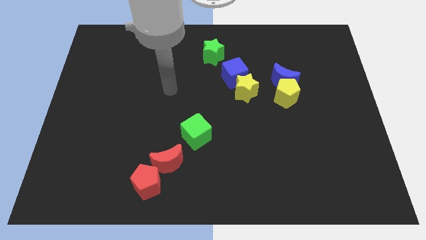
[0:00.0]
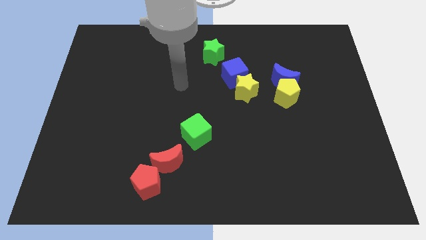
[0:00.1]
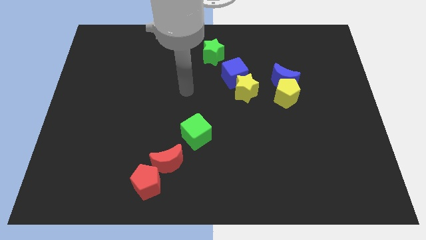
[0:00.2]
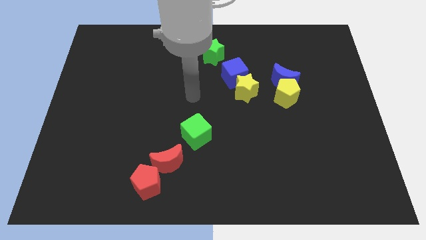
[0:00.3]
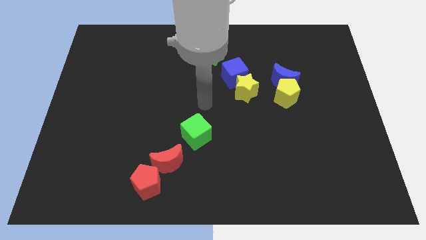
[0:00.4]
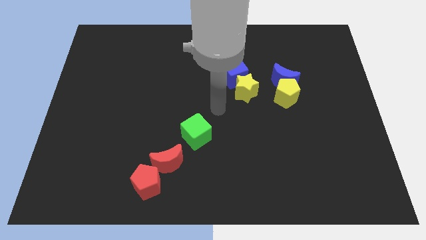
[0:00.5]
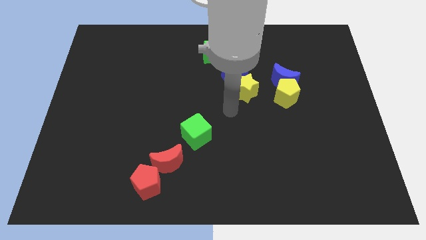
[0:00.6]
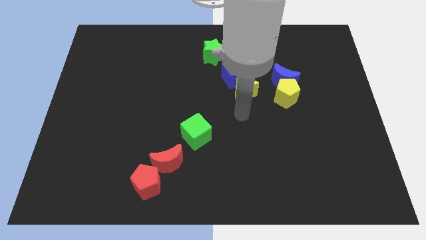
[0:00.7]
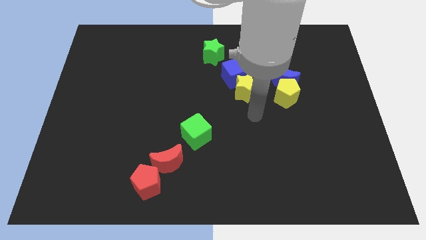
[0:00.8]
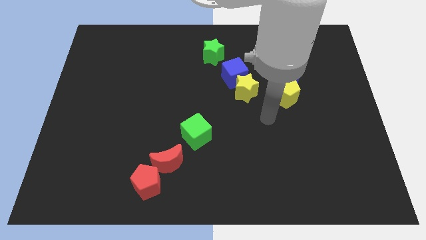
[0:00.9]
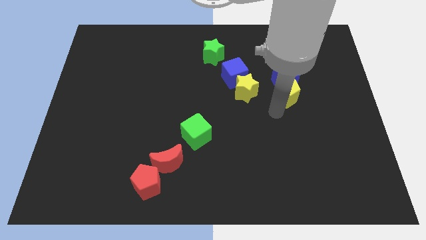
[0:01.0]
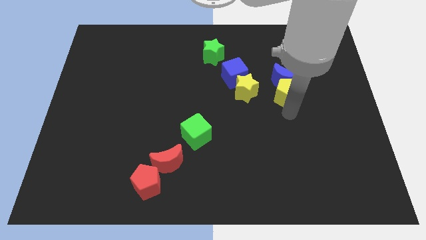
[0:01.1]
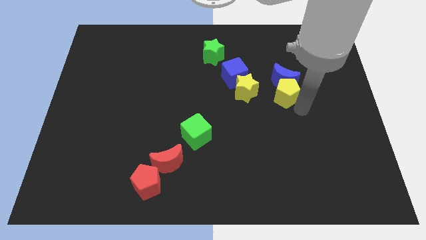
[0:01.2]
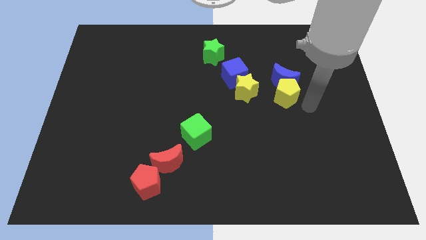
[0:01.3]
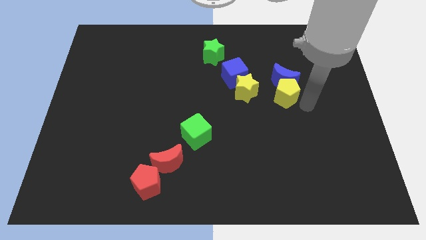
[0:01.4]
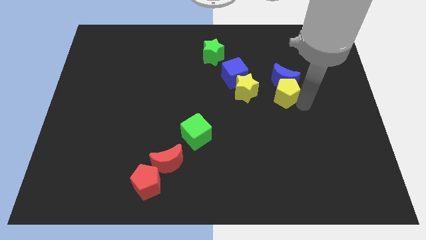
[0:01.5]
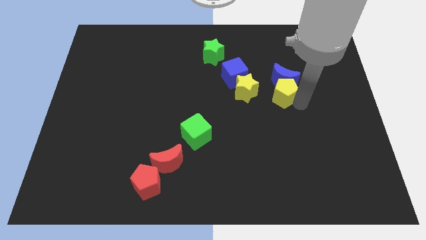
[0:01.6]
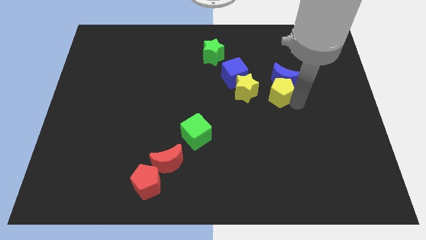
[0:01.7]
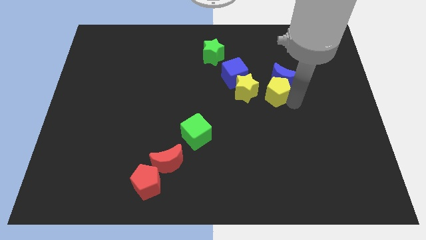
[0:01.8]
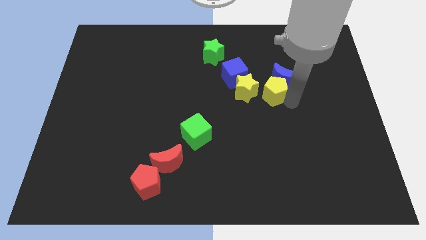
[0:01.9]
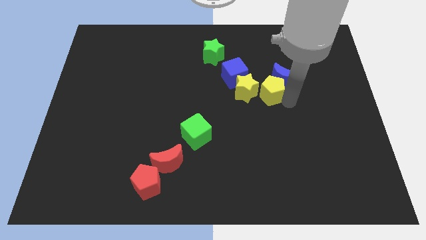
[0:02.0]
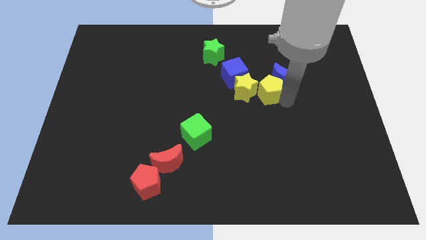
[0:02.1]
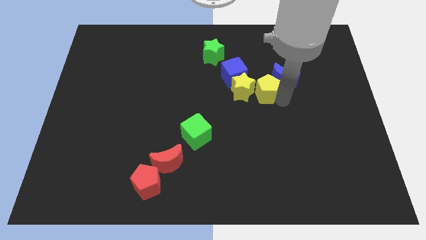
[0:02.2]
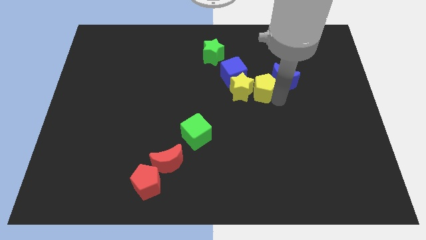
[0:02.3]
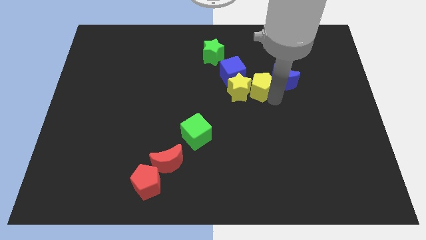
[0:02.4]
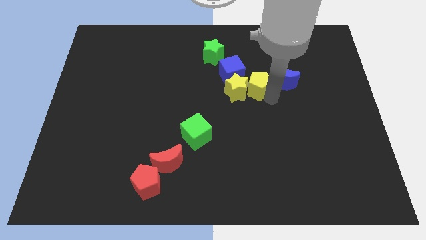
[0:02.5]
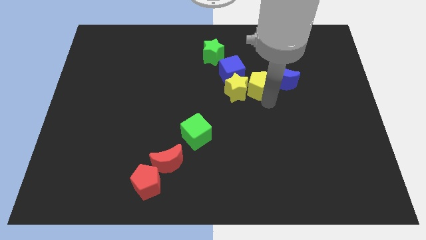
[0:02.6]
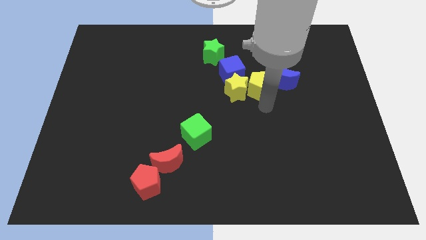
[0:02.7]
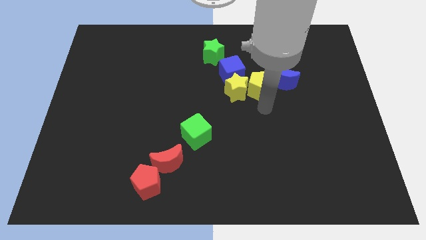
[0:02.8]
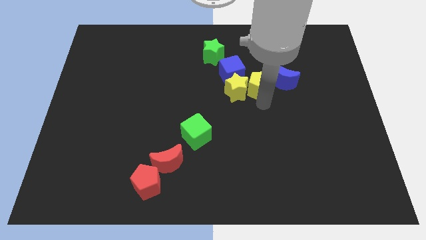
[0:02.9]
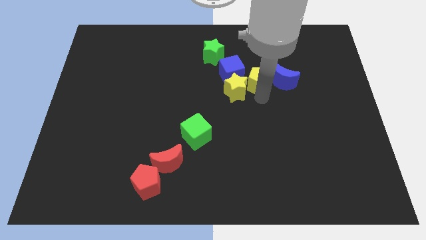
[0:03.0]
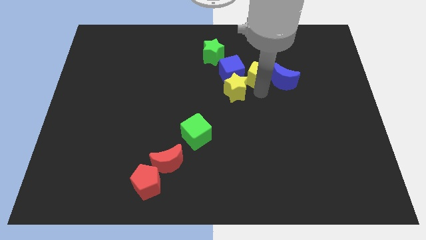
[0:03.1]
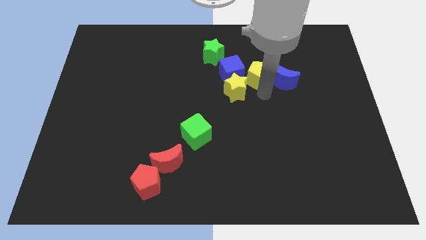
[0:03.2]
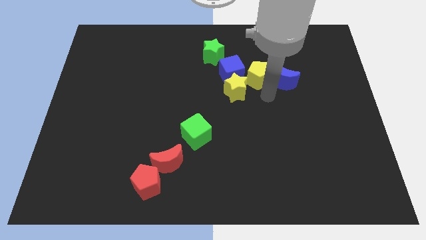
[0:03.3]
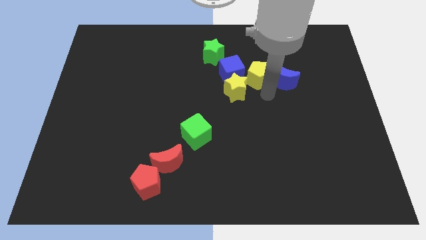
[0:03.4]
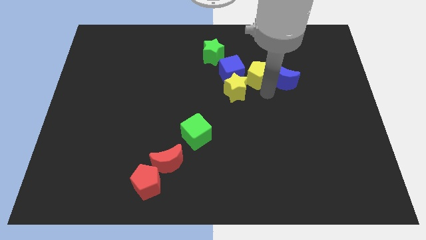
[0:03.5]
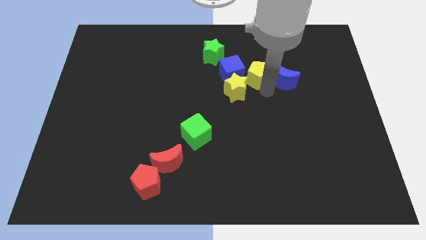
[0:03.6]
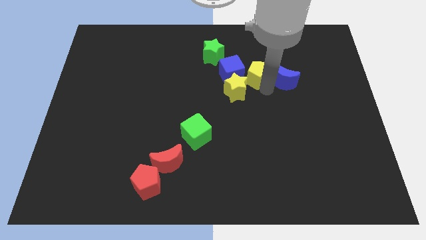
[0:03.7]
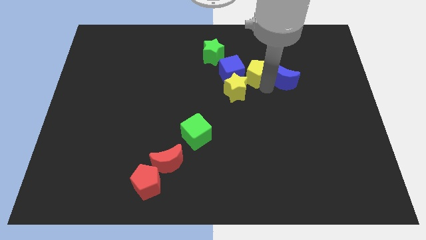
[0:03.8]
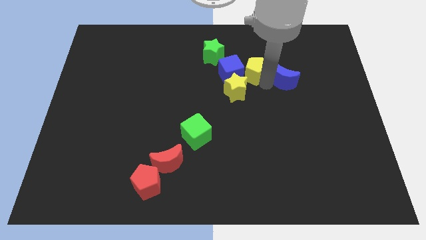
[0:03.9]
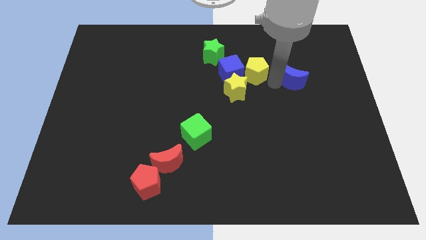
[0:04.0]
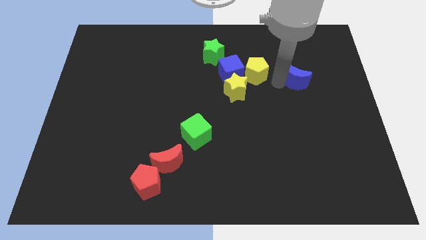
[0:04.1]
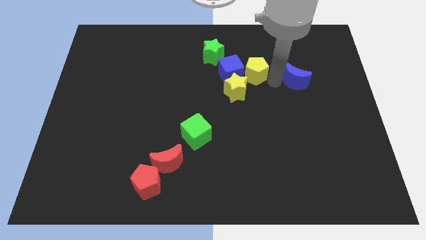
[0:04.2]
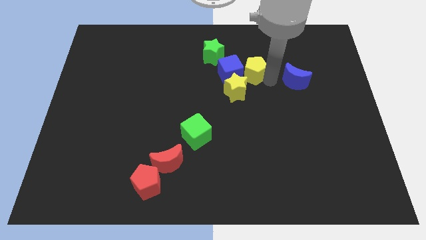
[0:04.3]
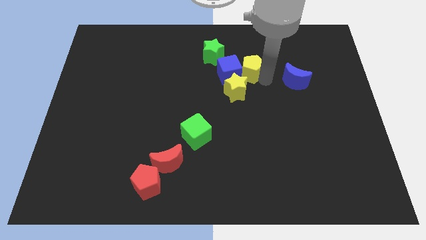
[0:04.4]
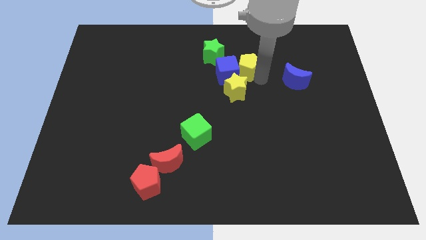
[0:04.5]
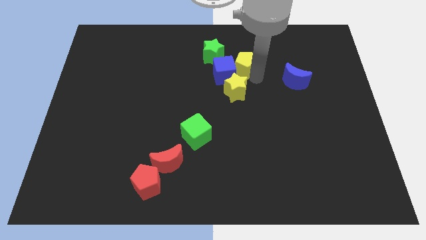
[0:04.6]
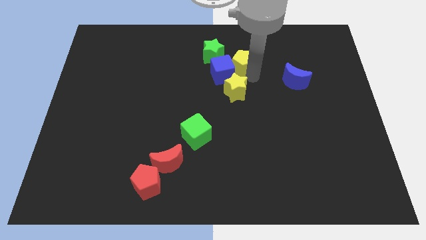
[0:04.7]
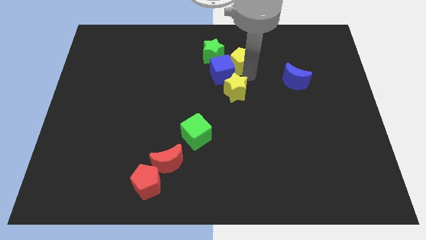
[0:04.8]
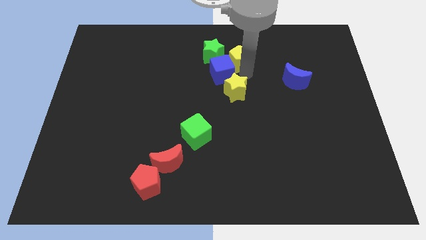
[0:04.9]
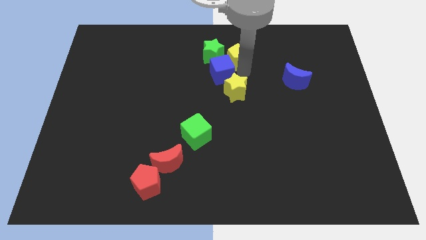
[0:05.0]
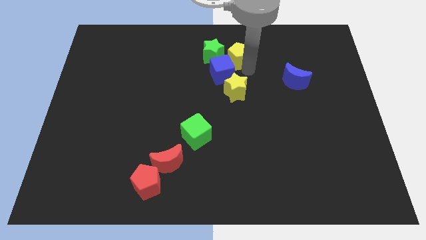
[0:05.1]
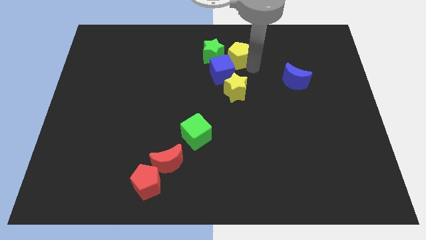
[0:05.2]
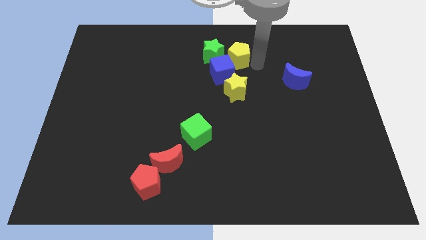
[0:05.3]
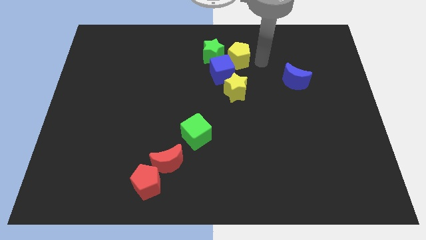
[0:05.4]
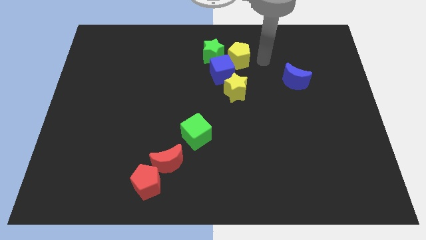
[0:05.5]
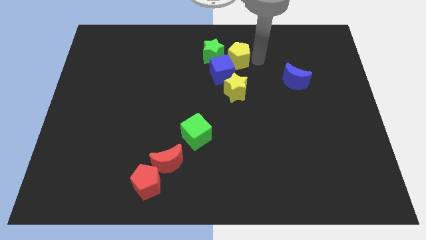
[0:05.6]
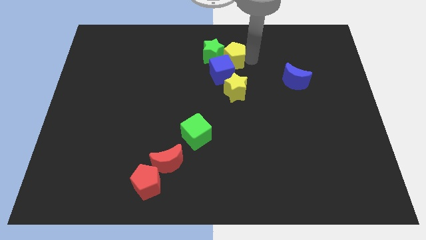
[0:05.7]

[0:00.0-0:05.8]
push the yellow pentagon close to the green star

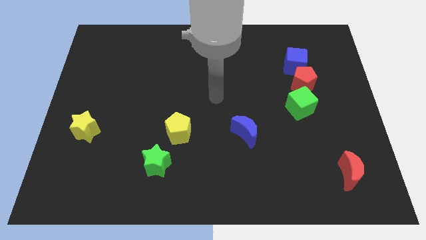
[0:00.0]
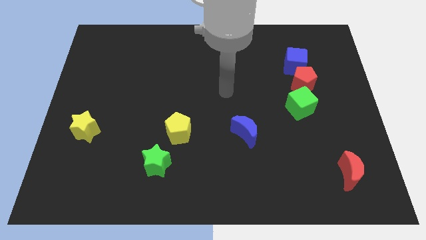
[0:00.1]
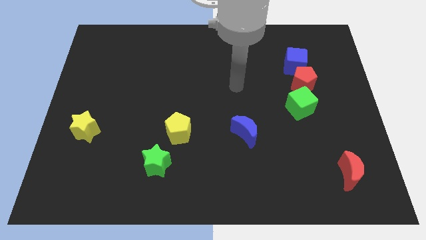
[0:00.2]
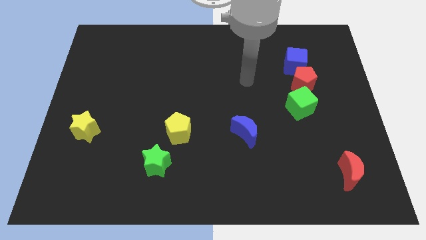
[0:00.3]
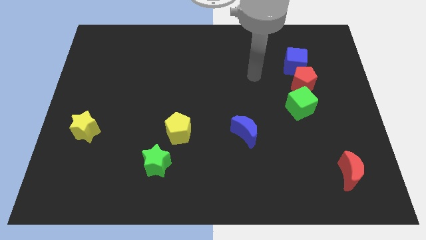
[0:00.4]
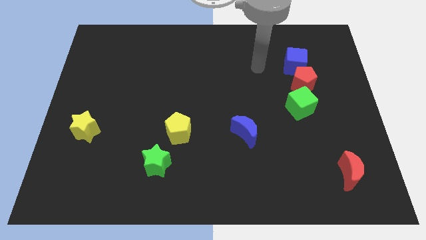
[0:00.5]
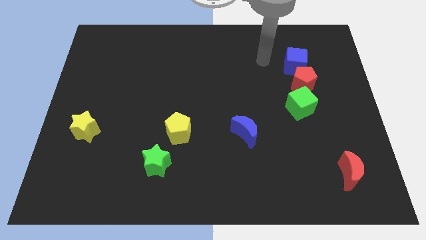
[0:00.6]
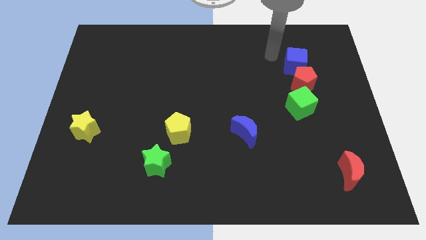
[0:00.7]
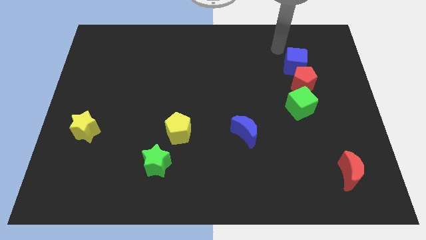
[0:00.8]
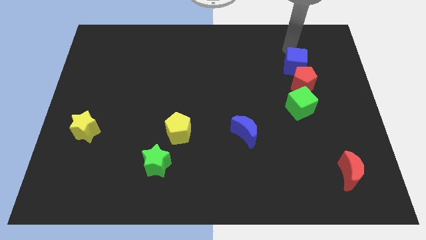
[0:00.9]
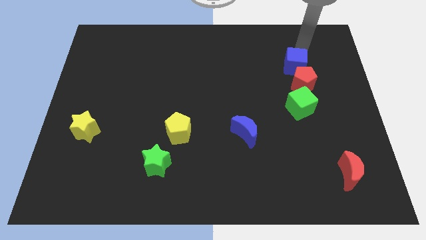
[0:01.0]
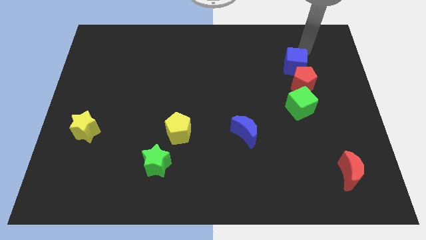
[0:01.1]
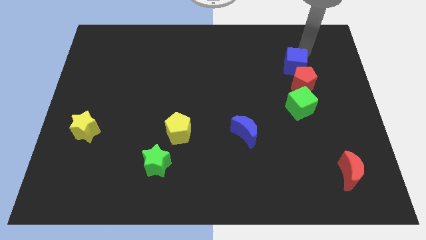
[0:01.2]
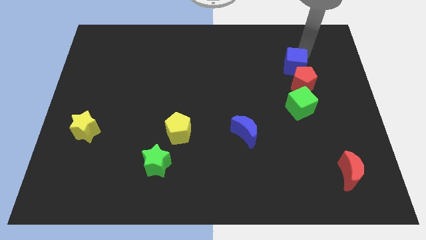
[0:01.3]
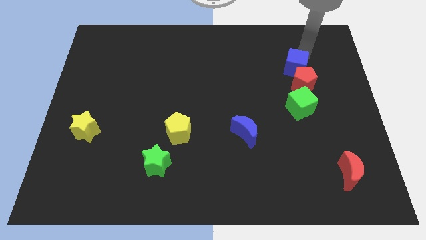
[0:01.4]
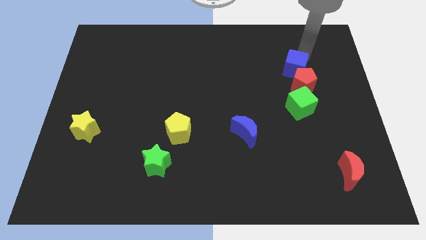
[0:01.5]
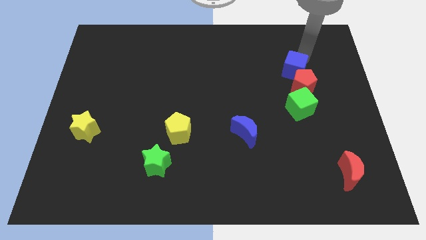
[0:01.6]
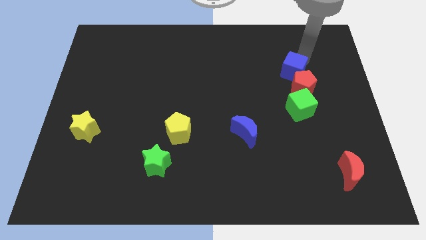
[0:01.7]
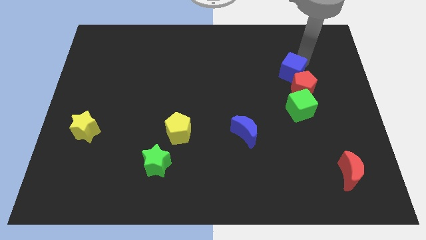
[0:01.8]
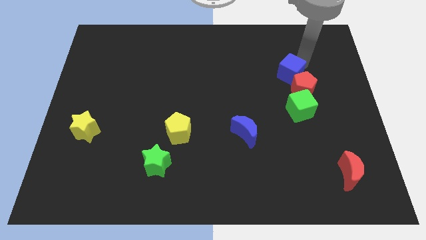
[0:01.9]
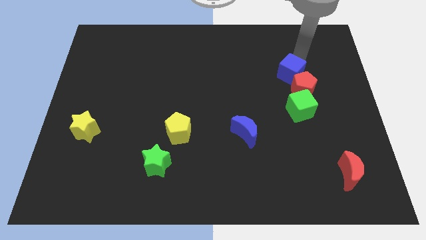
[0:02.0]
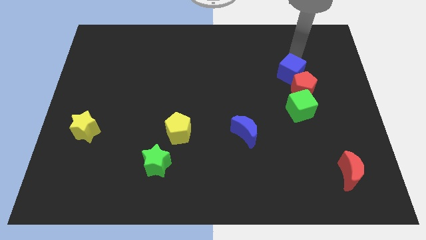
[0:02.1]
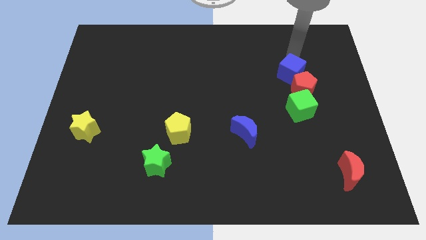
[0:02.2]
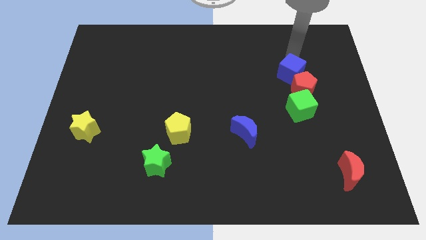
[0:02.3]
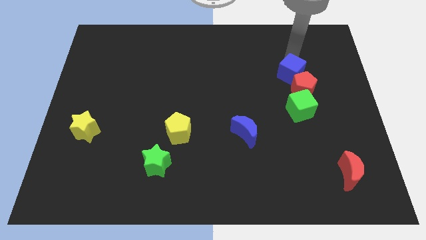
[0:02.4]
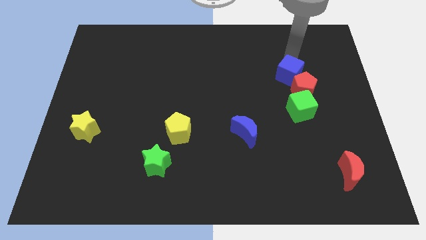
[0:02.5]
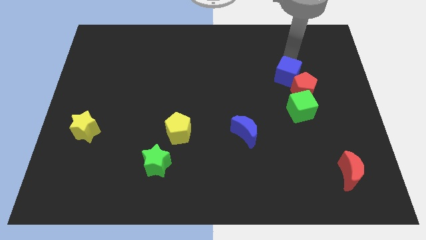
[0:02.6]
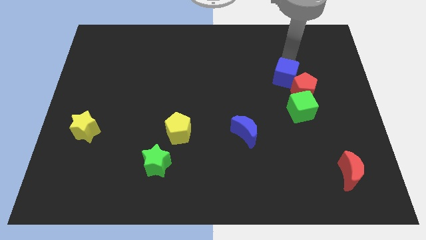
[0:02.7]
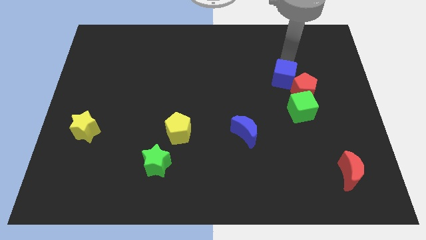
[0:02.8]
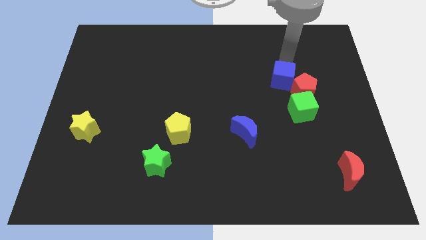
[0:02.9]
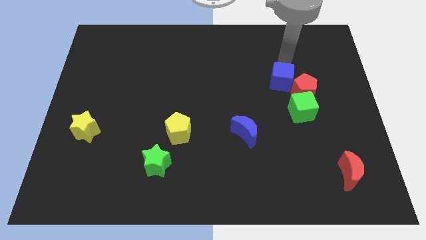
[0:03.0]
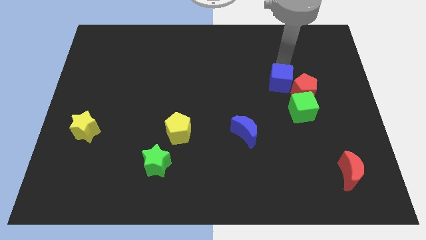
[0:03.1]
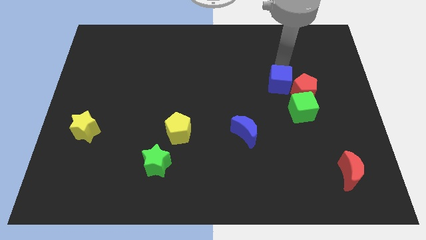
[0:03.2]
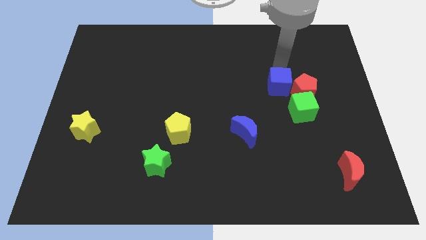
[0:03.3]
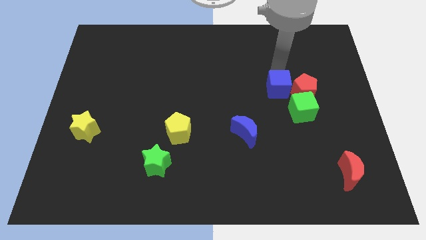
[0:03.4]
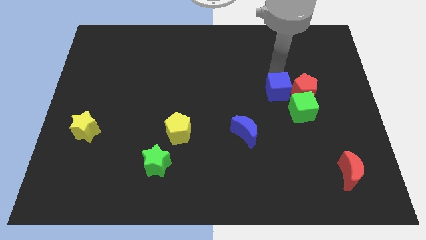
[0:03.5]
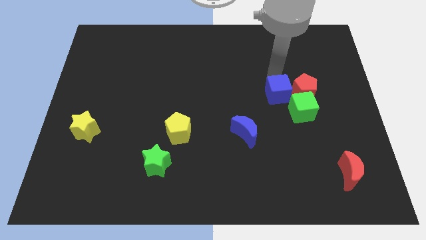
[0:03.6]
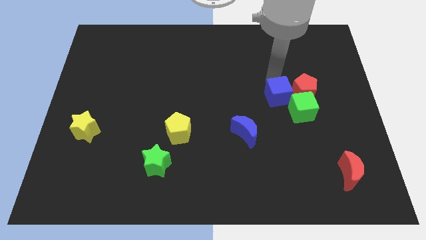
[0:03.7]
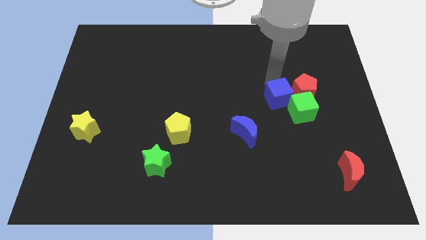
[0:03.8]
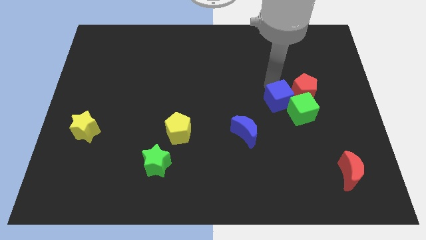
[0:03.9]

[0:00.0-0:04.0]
push the blue cube towards the green cube
